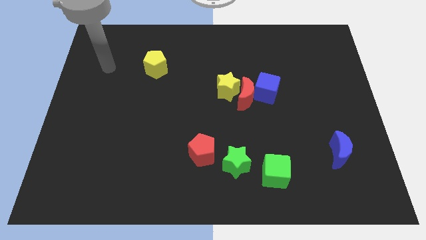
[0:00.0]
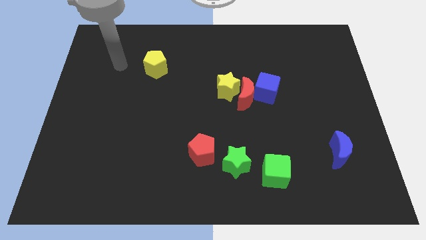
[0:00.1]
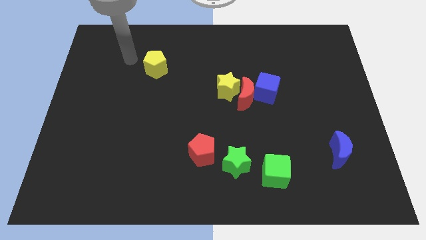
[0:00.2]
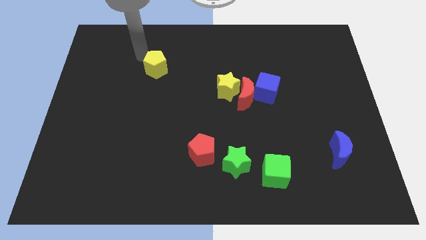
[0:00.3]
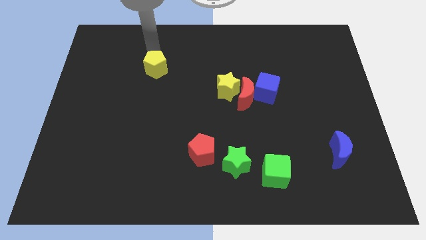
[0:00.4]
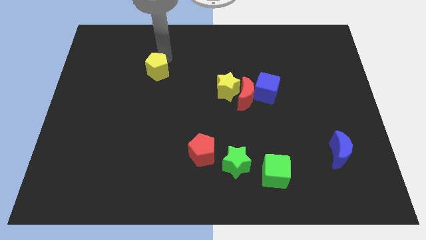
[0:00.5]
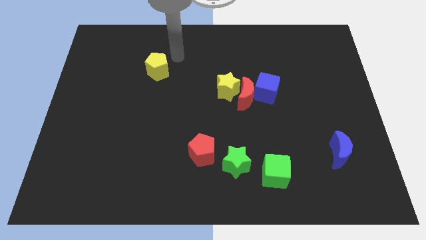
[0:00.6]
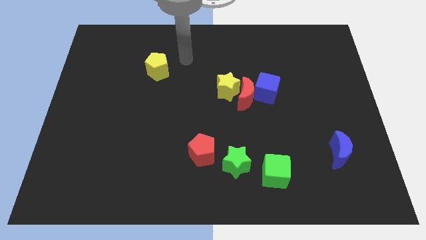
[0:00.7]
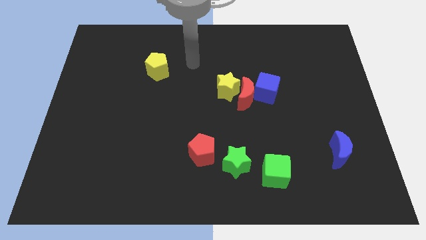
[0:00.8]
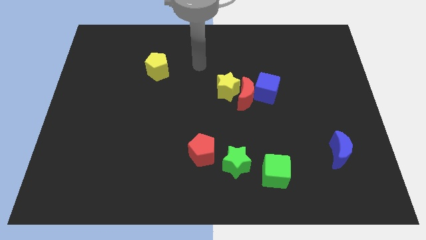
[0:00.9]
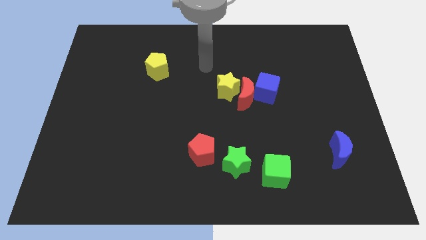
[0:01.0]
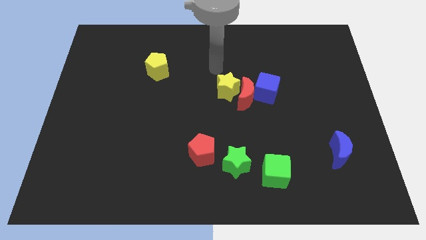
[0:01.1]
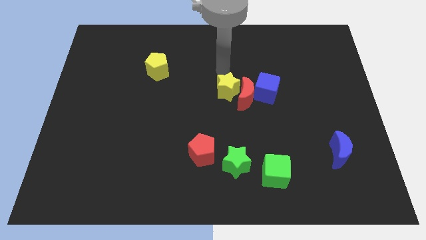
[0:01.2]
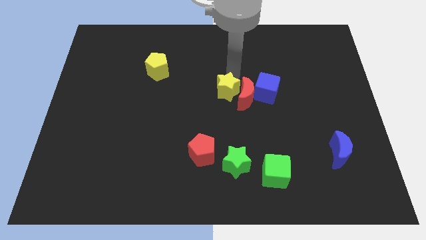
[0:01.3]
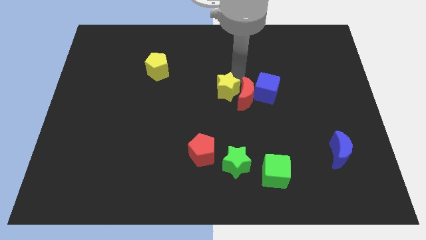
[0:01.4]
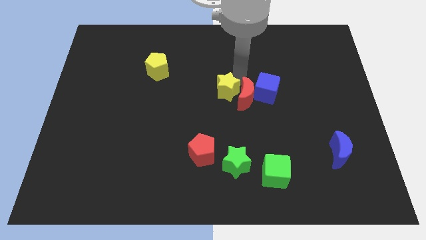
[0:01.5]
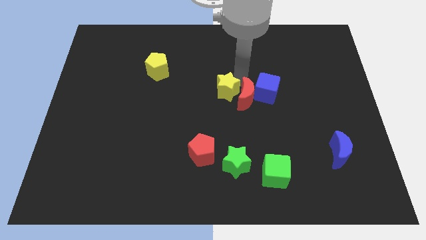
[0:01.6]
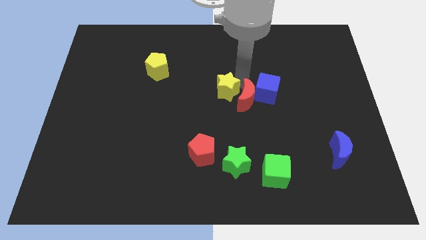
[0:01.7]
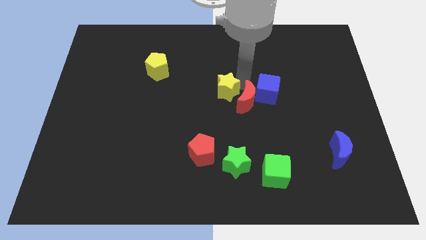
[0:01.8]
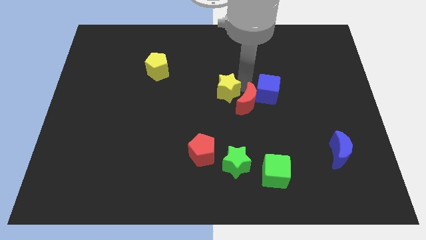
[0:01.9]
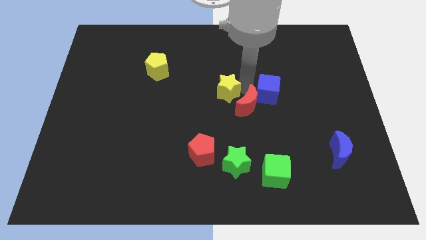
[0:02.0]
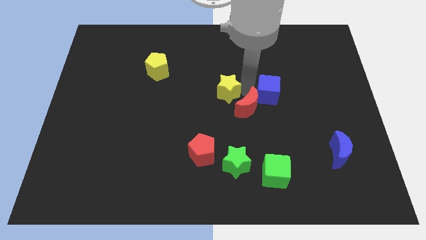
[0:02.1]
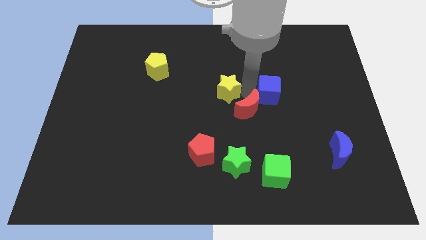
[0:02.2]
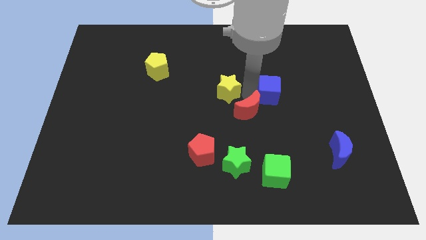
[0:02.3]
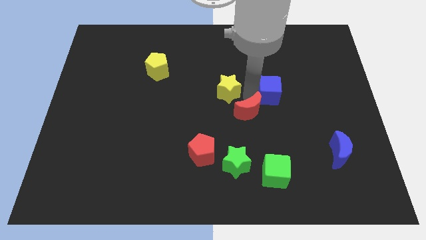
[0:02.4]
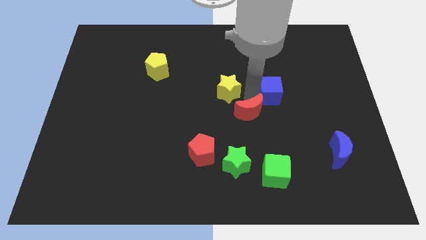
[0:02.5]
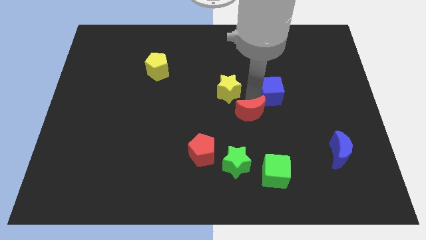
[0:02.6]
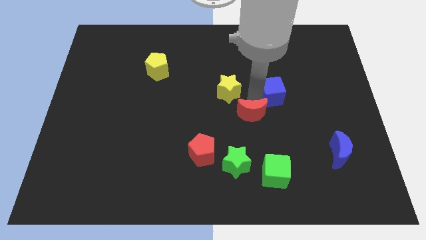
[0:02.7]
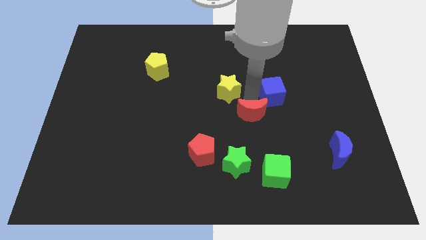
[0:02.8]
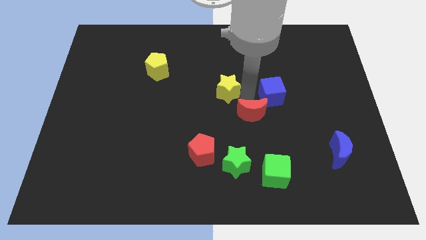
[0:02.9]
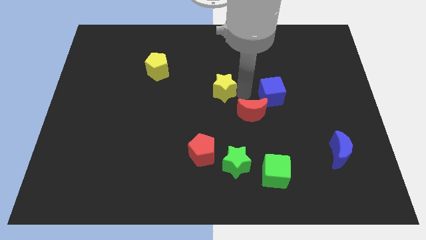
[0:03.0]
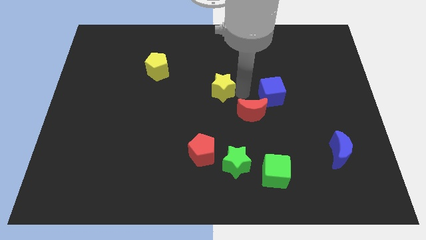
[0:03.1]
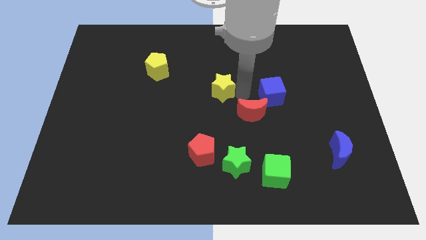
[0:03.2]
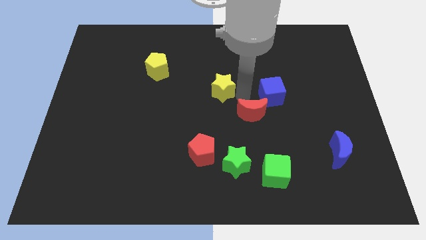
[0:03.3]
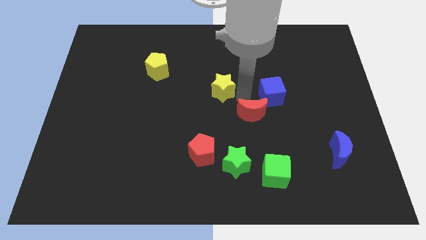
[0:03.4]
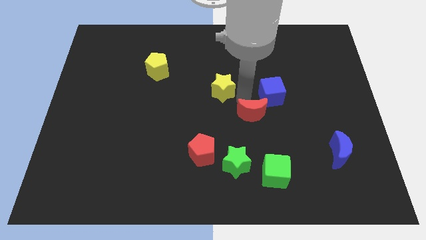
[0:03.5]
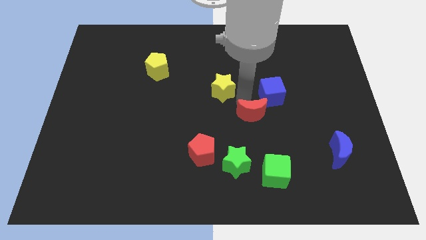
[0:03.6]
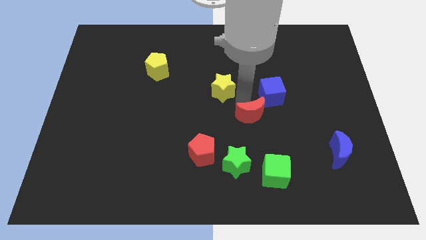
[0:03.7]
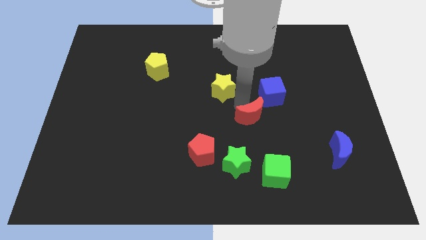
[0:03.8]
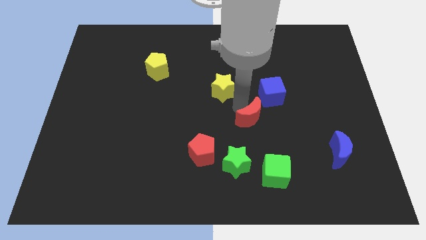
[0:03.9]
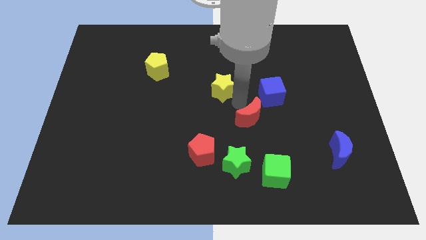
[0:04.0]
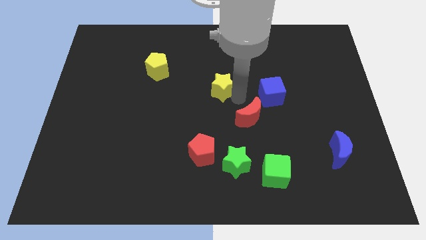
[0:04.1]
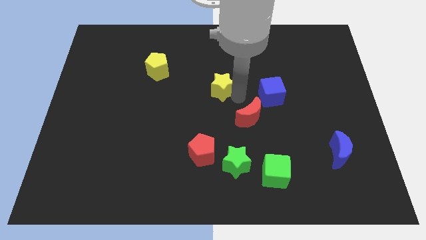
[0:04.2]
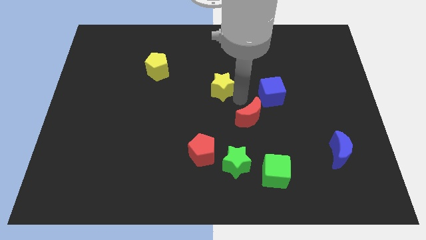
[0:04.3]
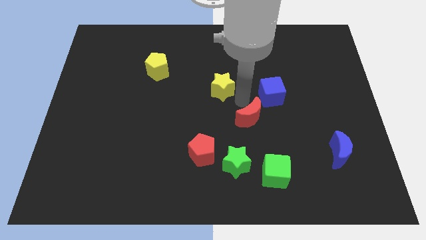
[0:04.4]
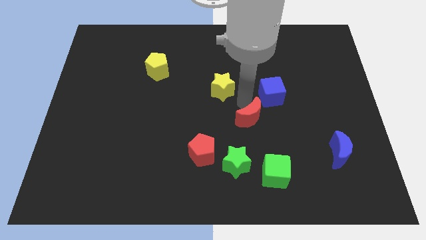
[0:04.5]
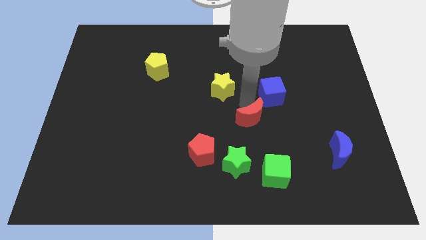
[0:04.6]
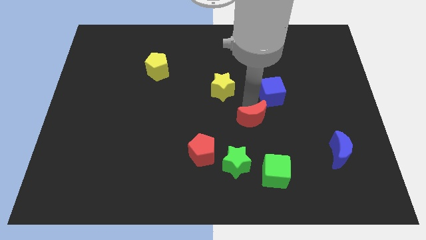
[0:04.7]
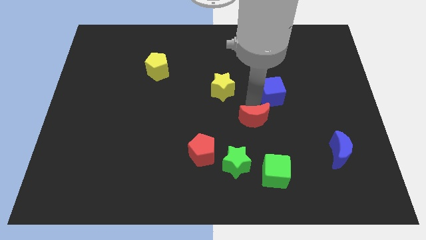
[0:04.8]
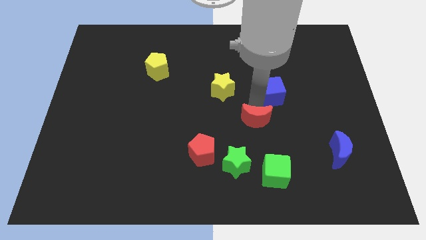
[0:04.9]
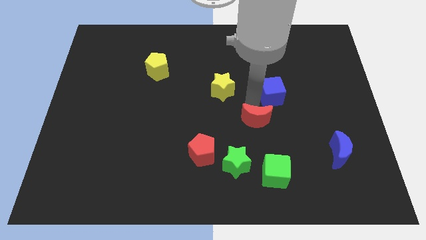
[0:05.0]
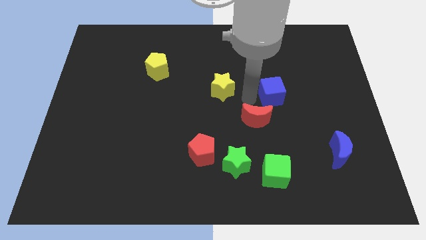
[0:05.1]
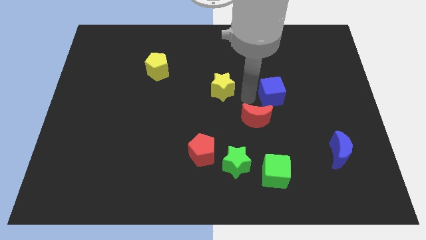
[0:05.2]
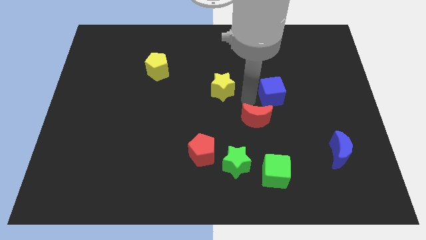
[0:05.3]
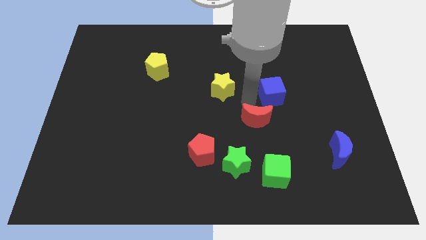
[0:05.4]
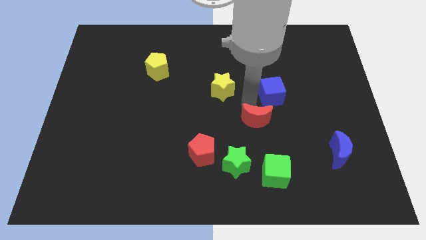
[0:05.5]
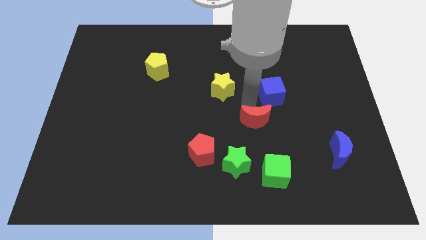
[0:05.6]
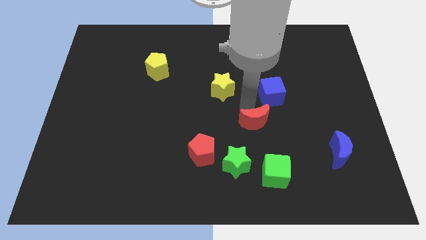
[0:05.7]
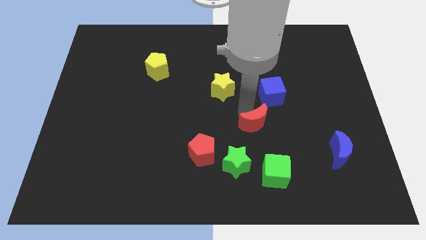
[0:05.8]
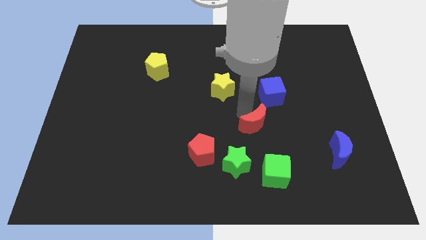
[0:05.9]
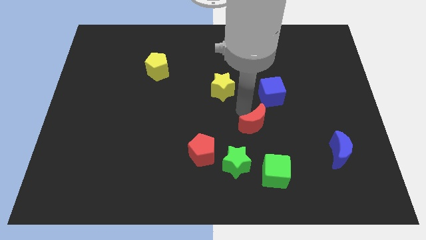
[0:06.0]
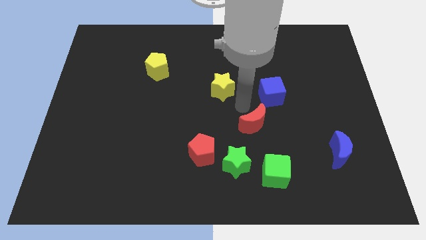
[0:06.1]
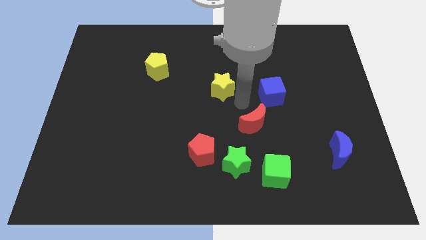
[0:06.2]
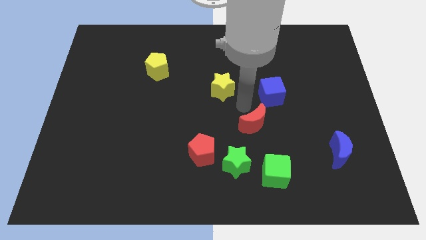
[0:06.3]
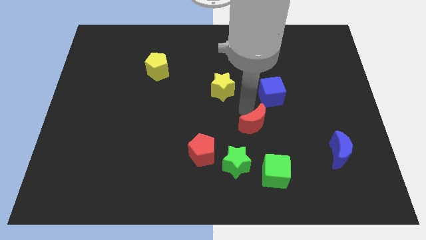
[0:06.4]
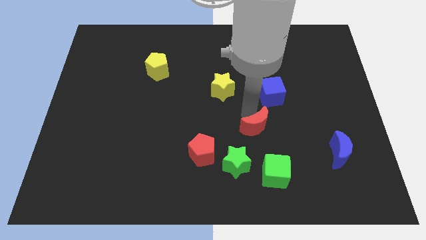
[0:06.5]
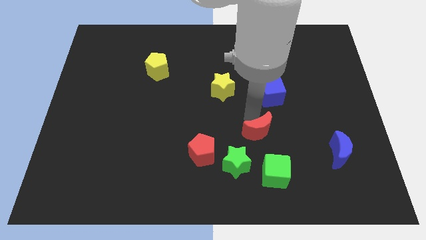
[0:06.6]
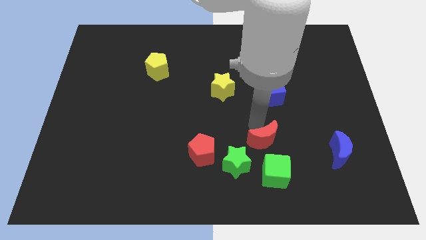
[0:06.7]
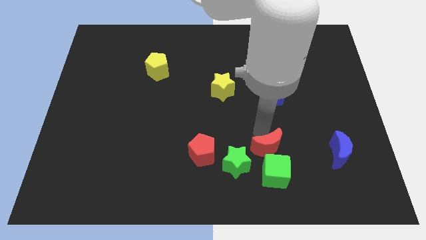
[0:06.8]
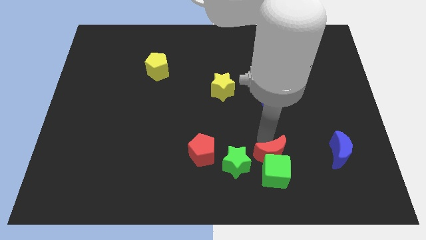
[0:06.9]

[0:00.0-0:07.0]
slide the red moon next to the green cube

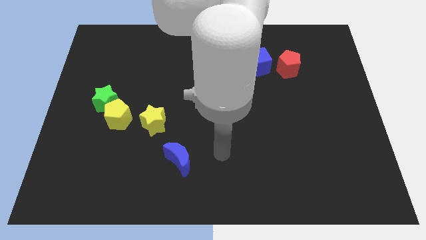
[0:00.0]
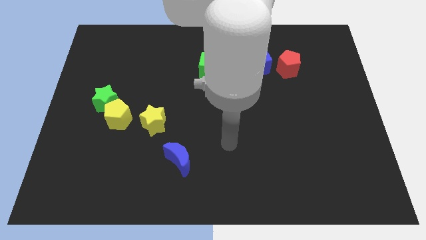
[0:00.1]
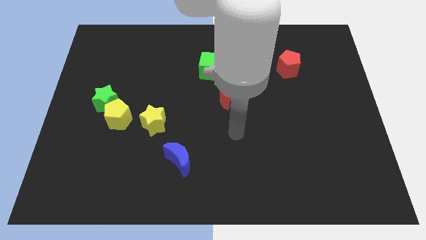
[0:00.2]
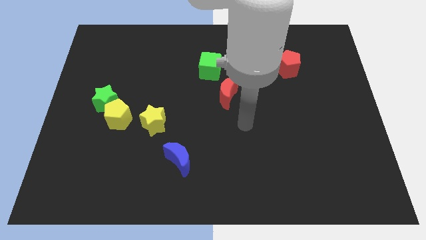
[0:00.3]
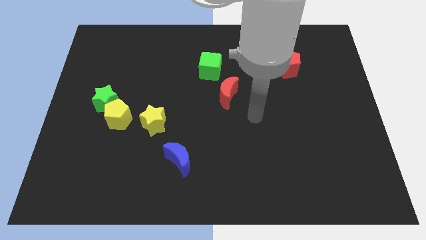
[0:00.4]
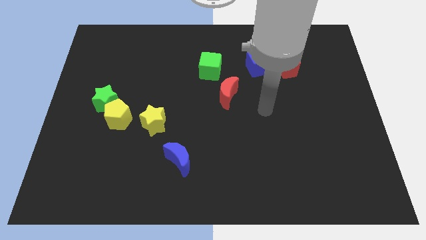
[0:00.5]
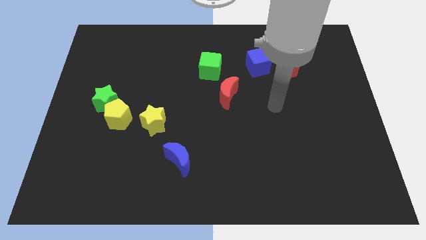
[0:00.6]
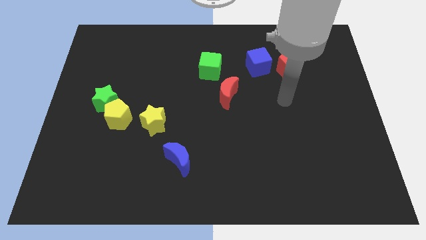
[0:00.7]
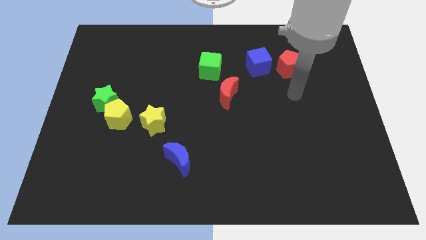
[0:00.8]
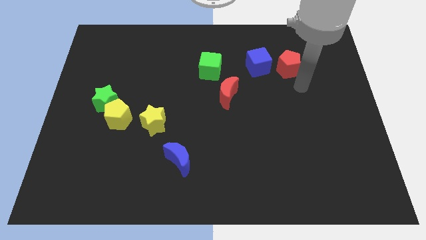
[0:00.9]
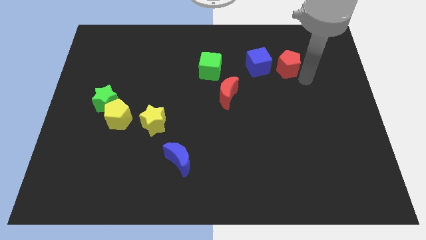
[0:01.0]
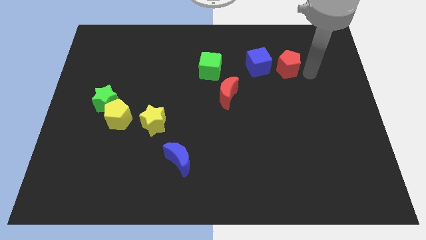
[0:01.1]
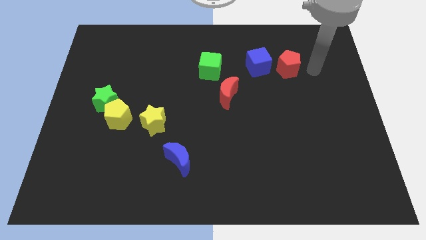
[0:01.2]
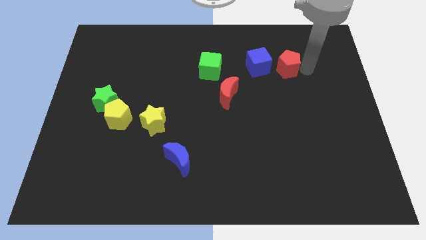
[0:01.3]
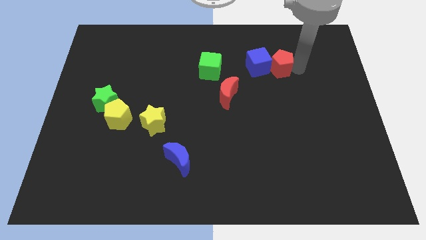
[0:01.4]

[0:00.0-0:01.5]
push the red pentagon next to the blue cube
